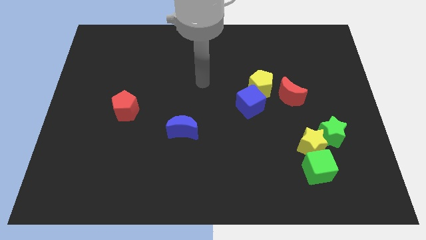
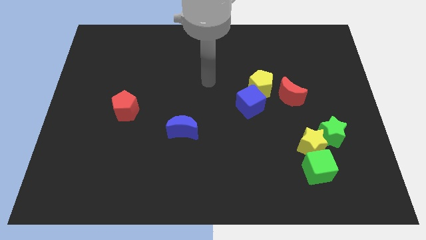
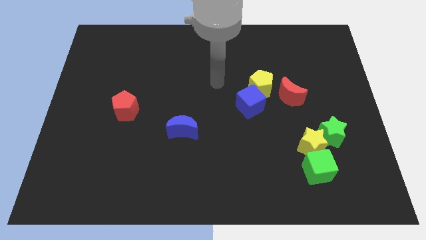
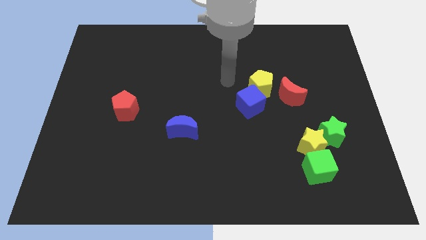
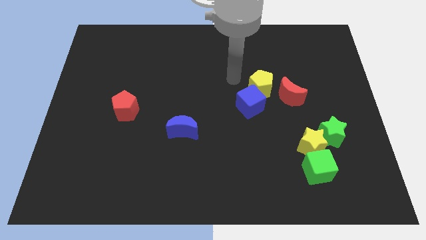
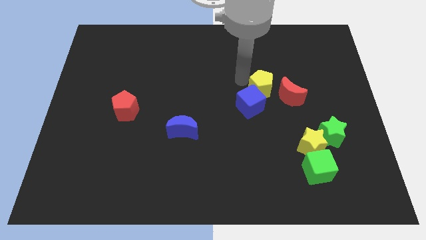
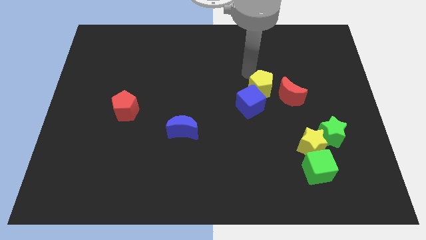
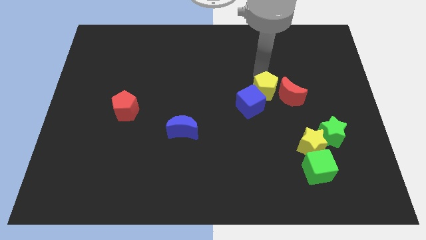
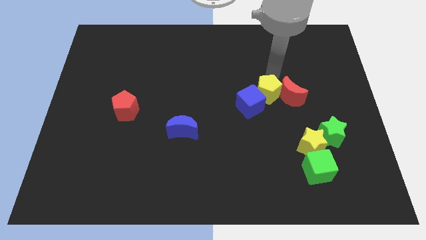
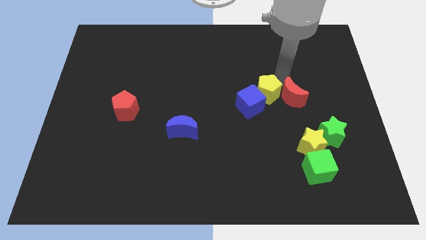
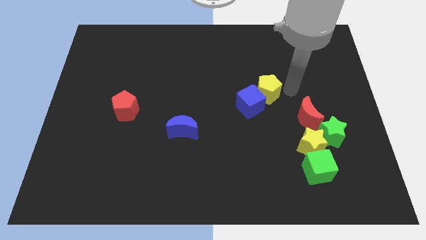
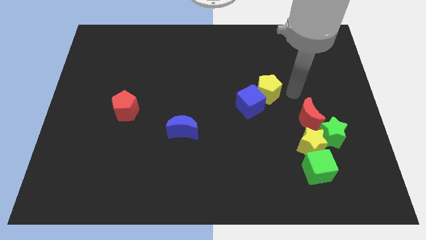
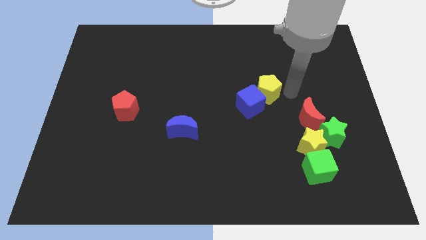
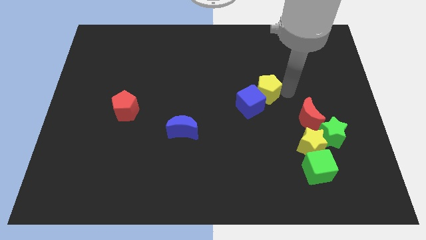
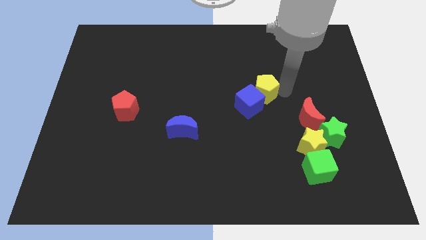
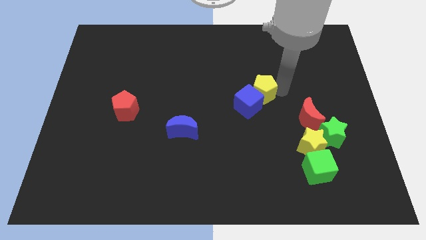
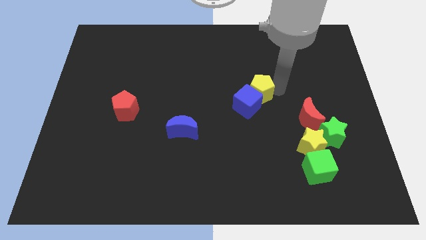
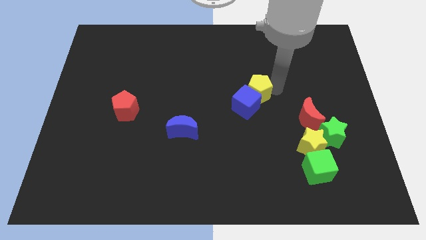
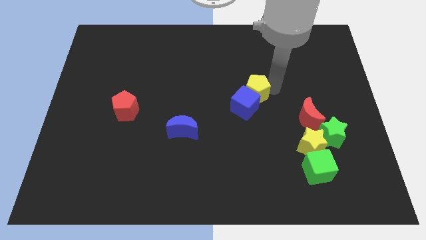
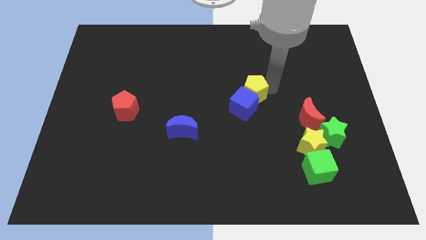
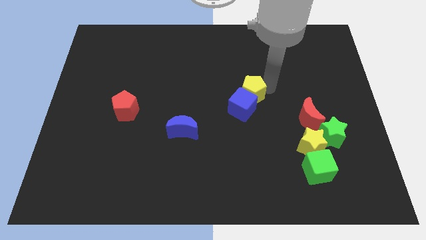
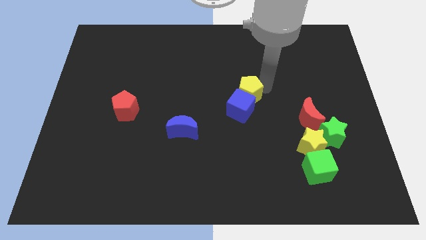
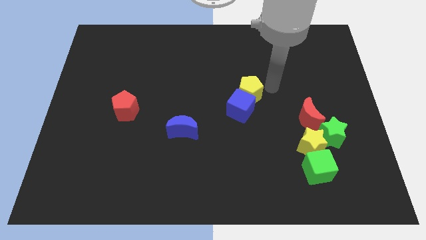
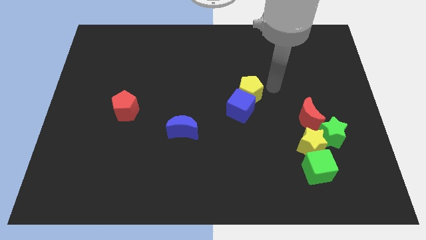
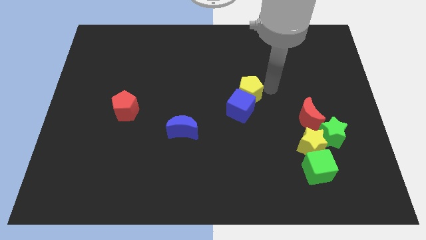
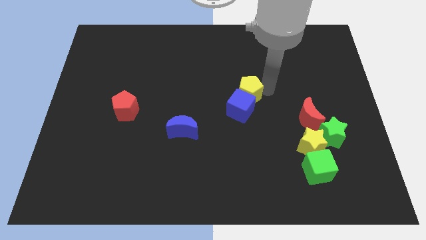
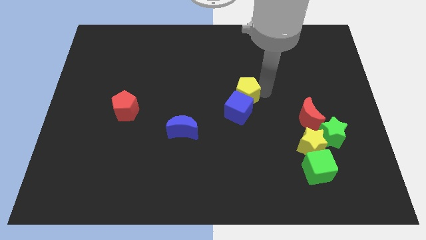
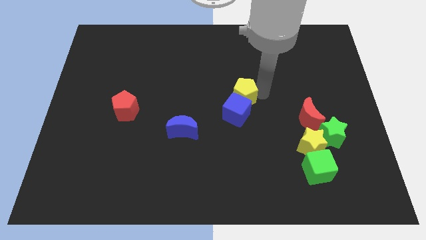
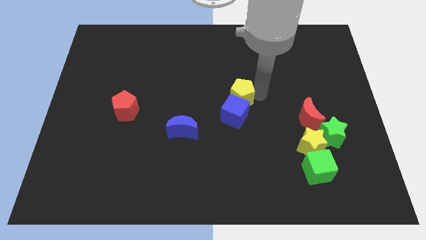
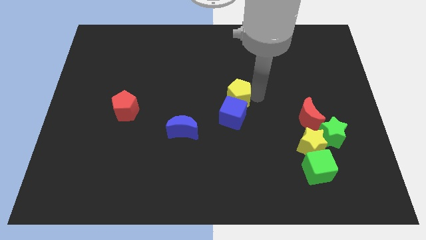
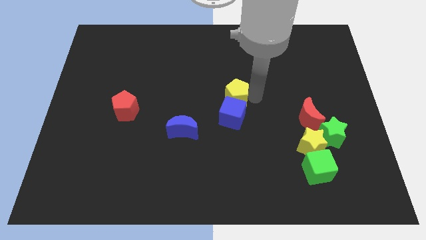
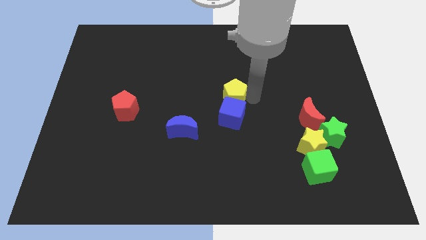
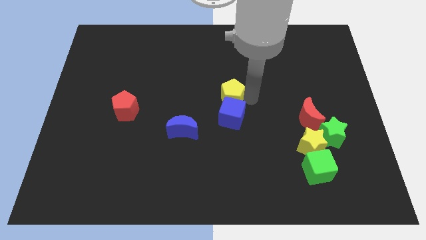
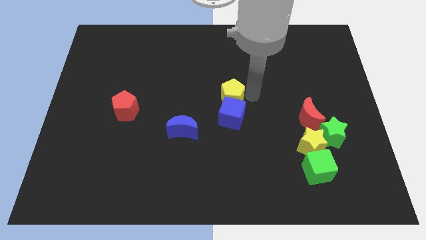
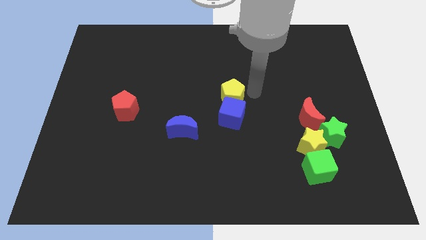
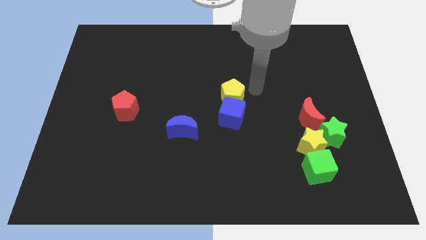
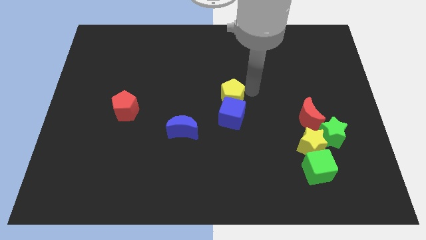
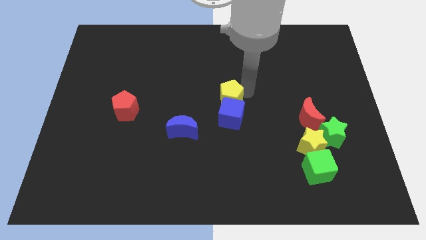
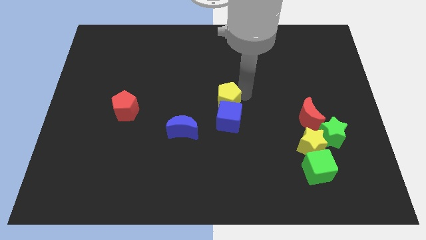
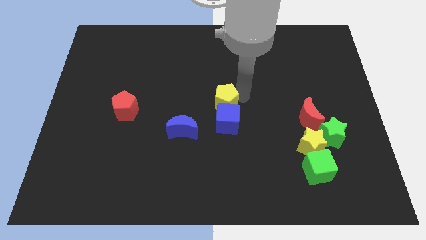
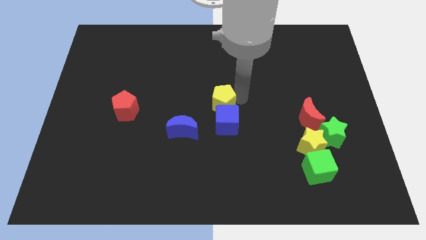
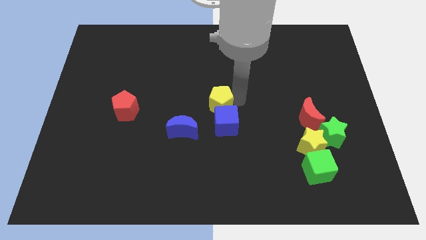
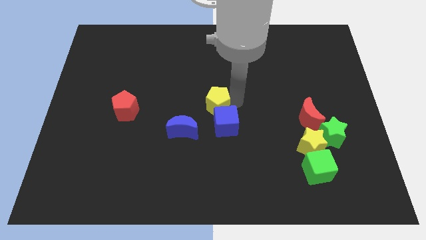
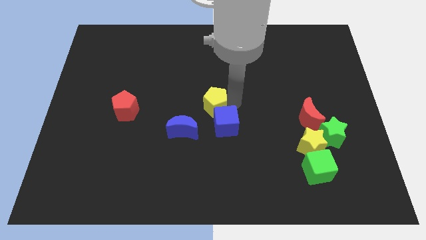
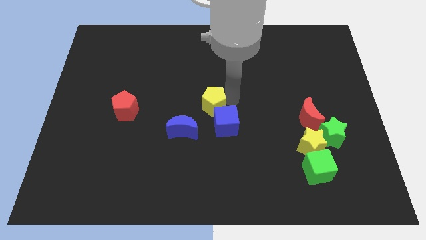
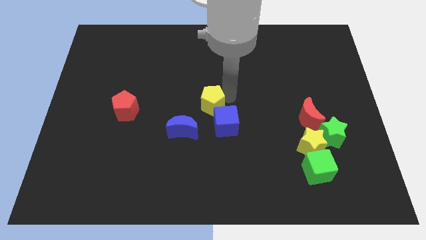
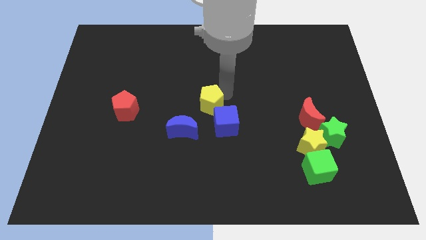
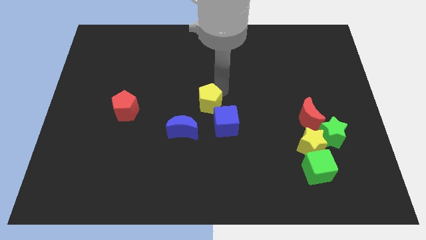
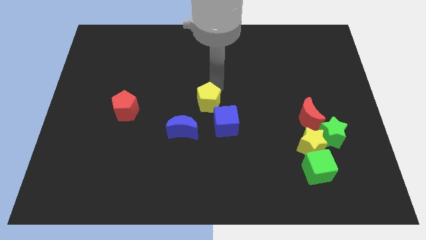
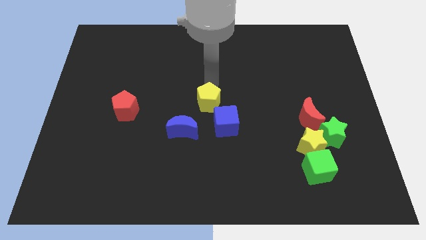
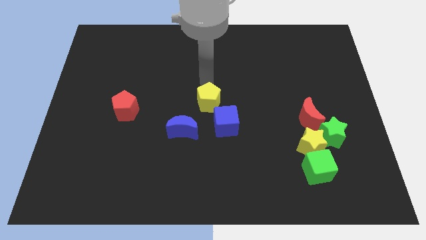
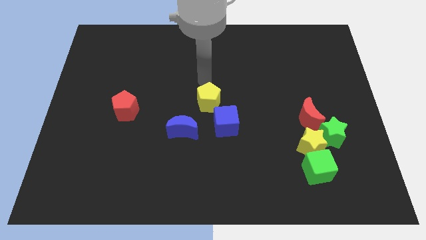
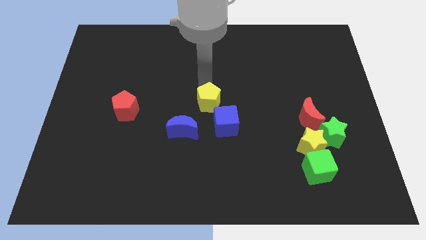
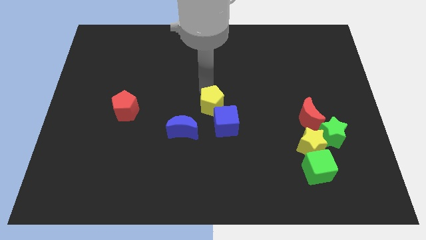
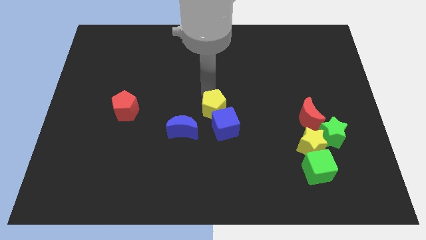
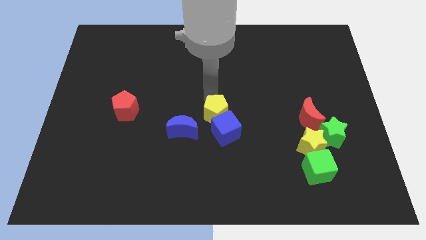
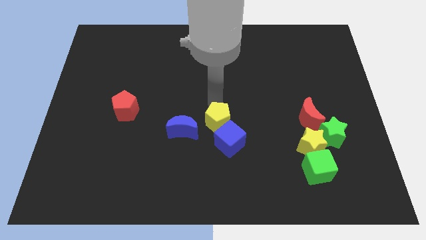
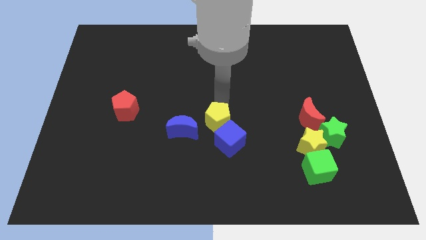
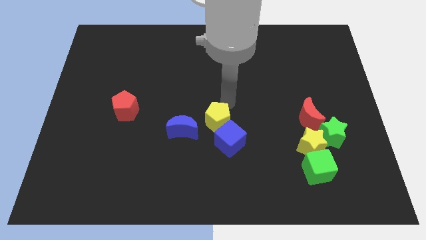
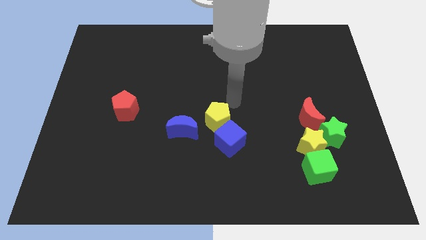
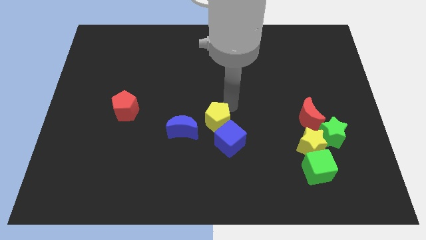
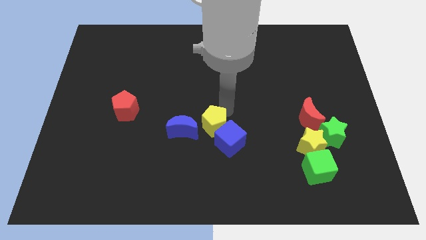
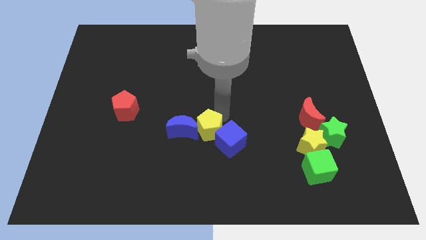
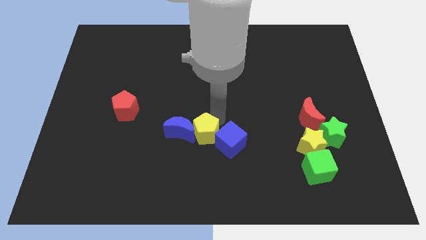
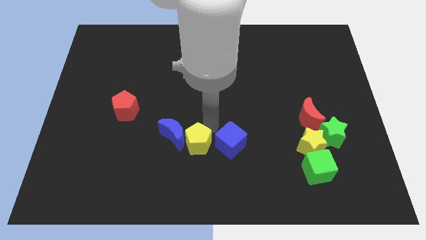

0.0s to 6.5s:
slide the yellow pentagon down and left

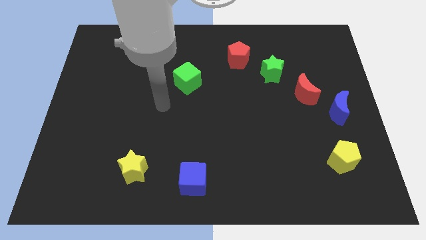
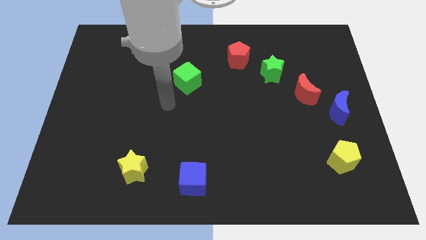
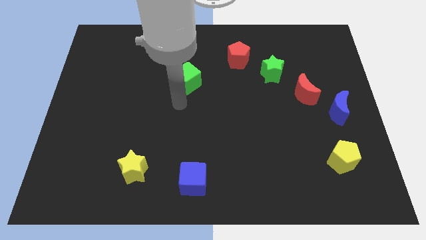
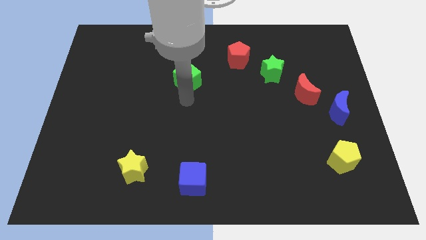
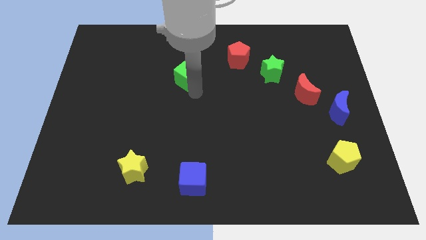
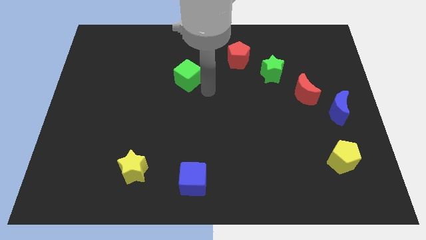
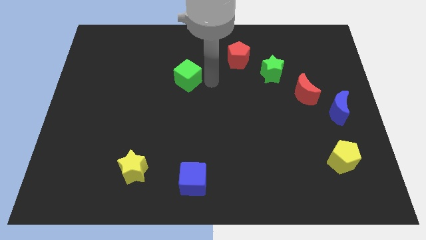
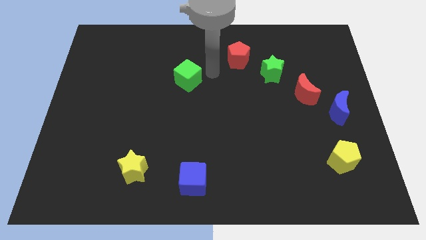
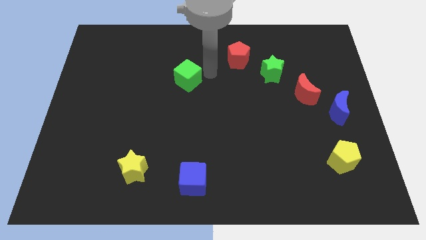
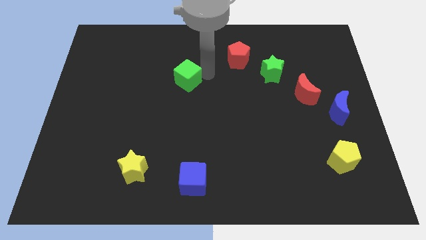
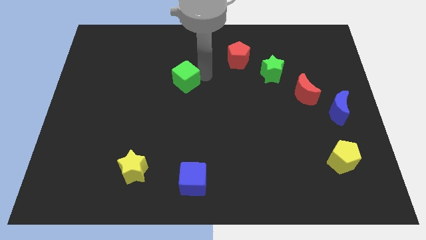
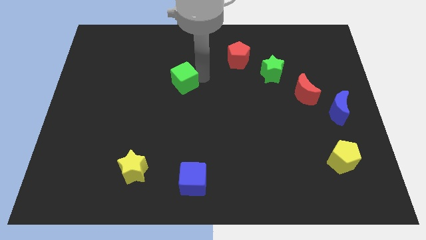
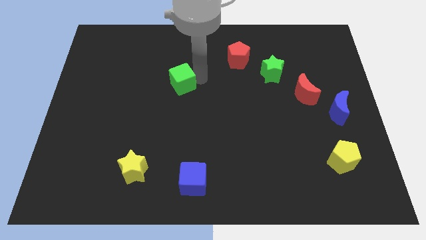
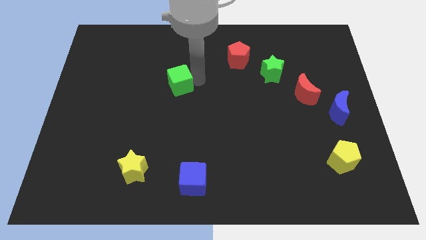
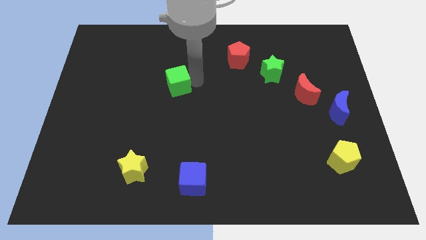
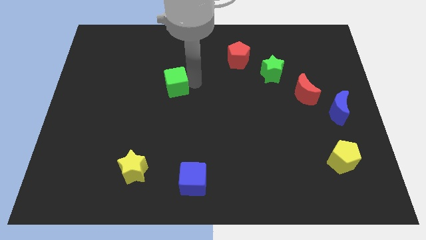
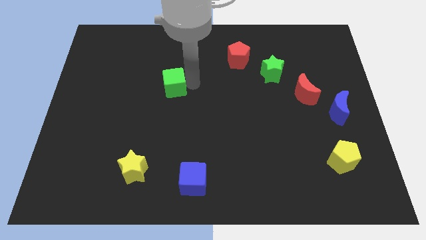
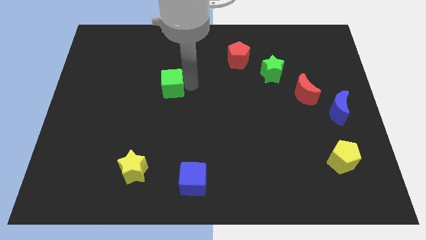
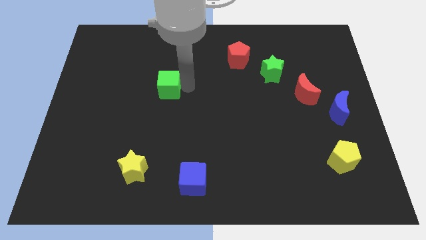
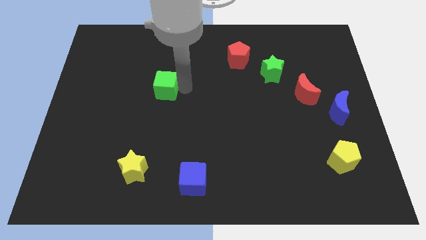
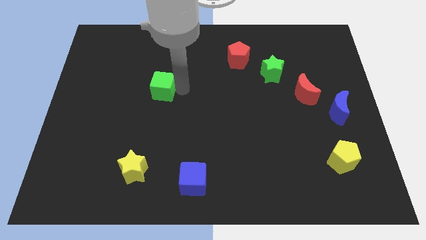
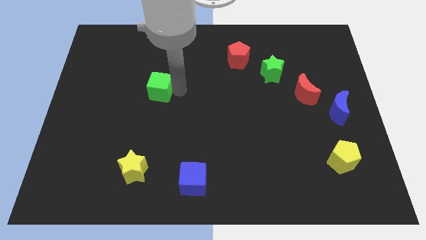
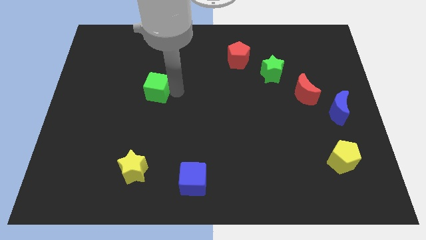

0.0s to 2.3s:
slightly push the green cube left
